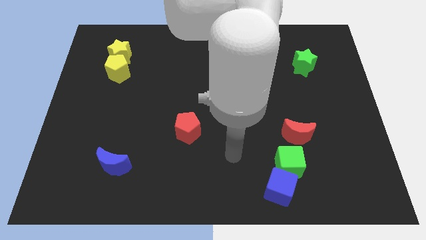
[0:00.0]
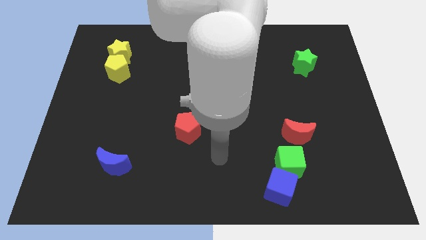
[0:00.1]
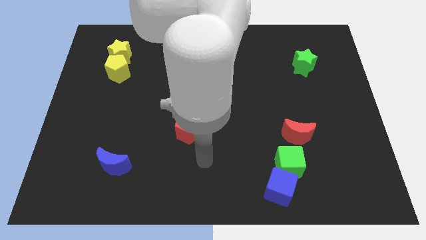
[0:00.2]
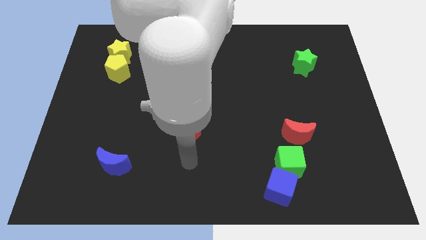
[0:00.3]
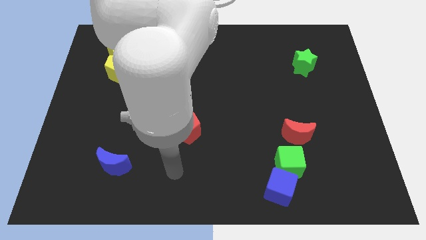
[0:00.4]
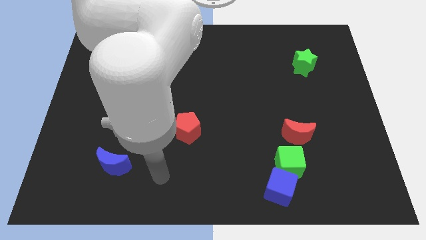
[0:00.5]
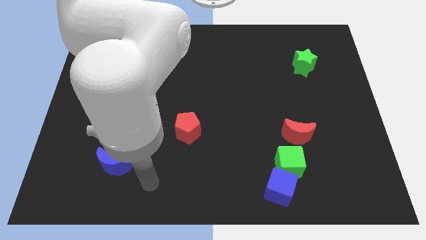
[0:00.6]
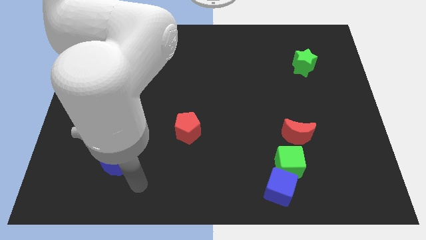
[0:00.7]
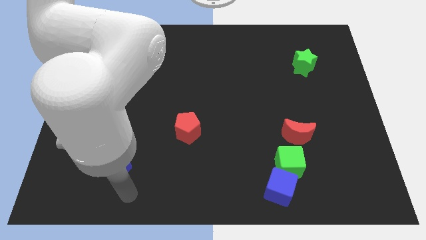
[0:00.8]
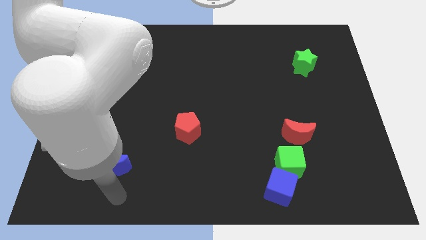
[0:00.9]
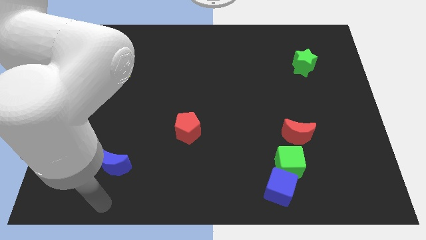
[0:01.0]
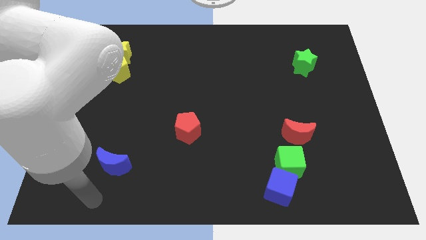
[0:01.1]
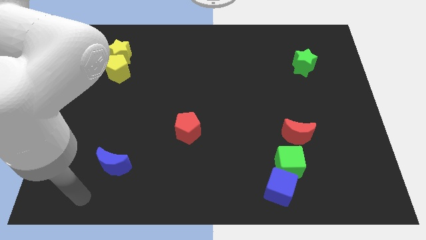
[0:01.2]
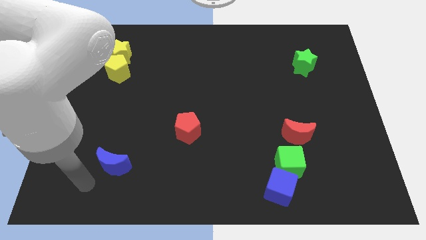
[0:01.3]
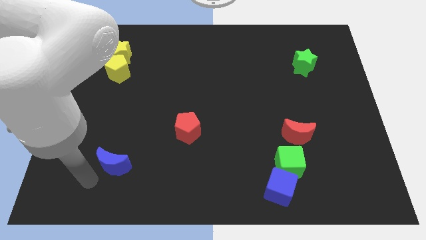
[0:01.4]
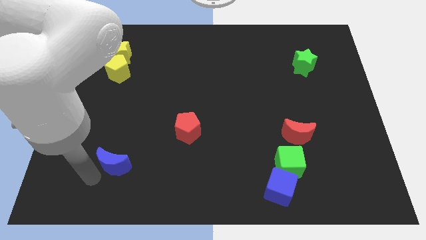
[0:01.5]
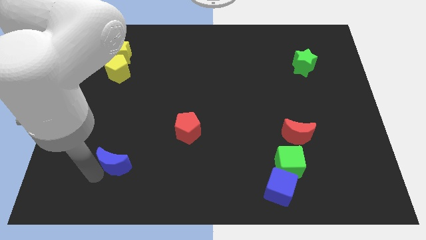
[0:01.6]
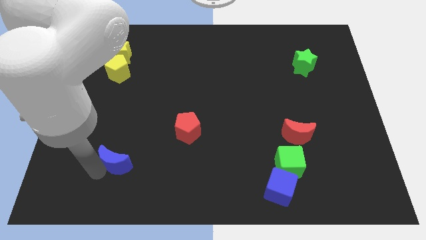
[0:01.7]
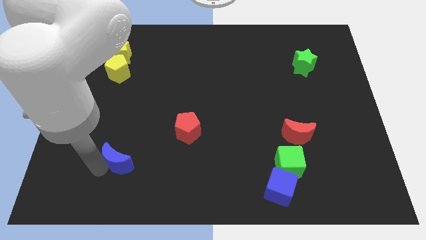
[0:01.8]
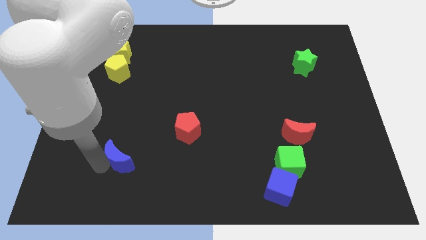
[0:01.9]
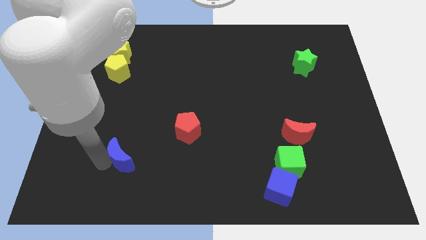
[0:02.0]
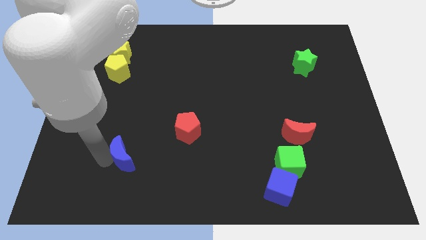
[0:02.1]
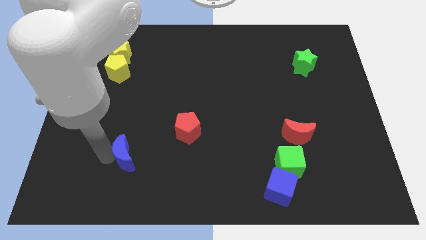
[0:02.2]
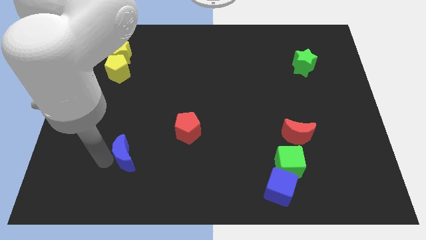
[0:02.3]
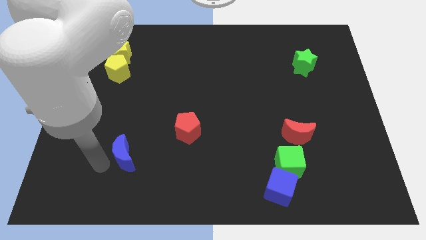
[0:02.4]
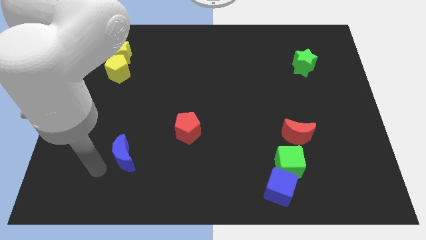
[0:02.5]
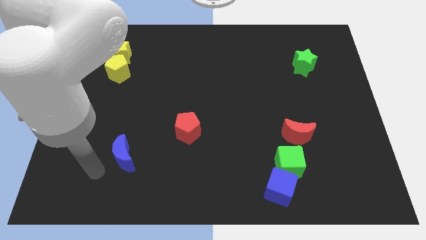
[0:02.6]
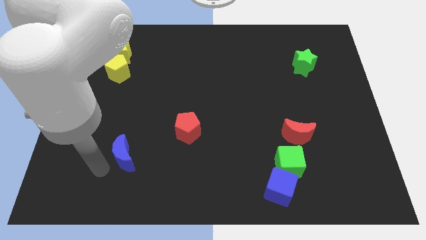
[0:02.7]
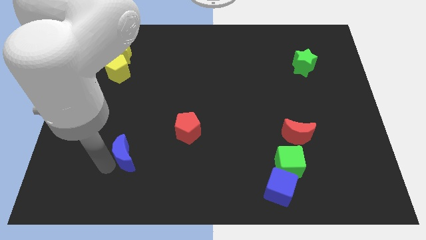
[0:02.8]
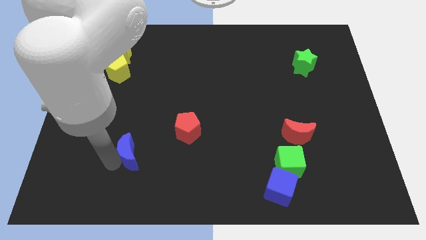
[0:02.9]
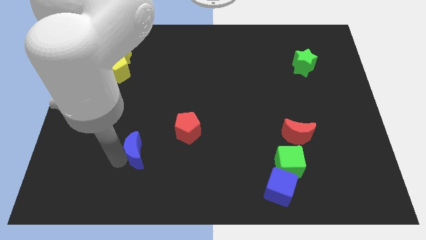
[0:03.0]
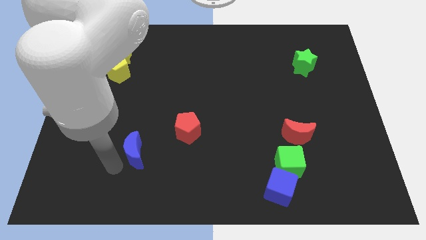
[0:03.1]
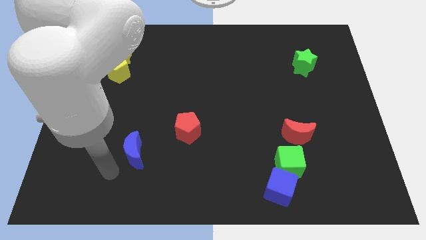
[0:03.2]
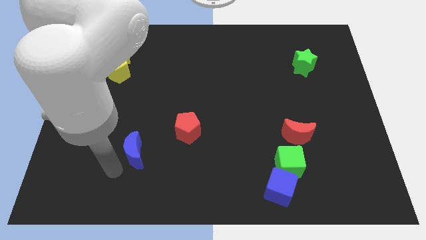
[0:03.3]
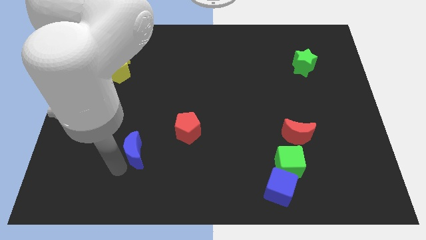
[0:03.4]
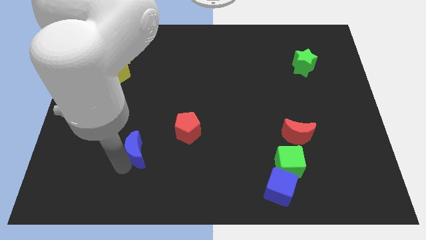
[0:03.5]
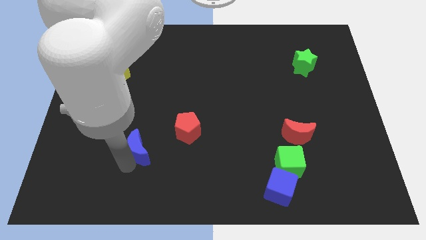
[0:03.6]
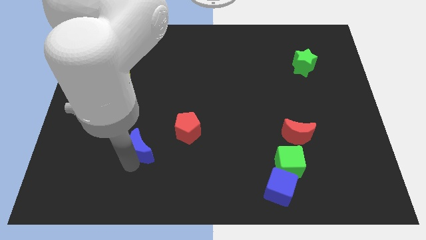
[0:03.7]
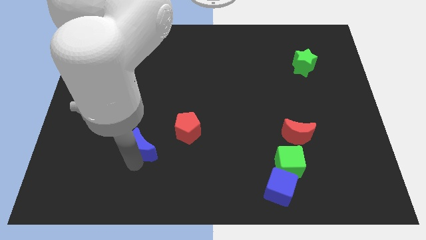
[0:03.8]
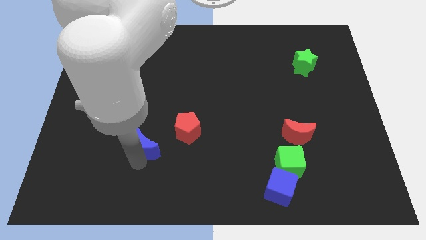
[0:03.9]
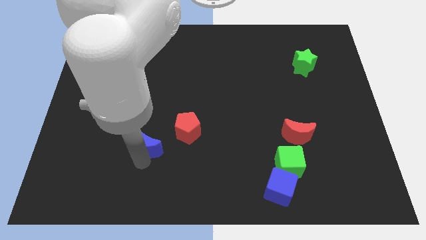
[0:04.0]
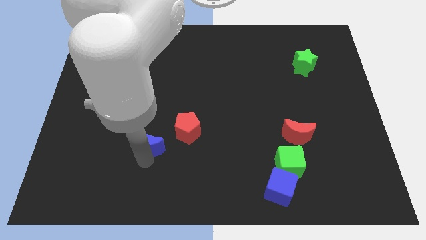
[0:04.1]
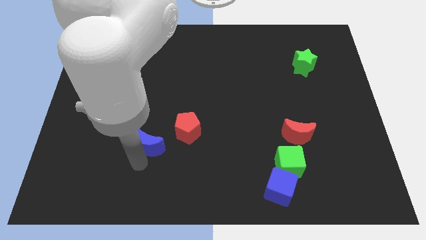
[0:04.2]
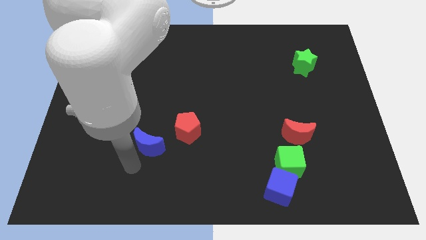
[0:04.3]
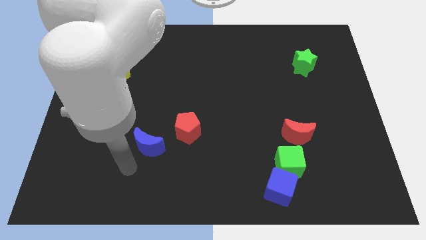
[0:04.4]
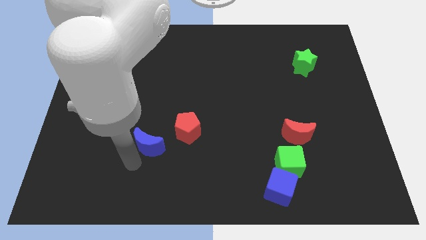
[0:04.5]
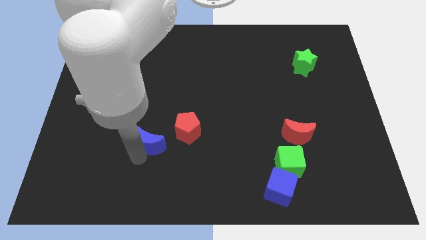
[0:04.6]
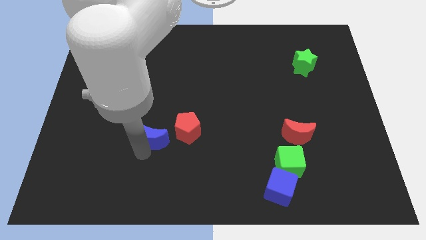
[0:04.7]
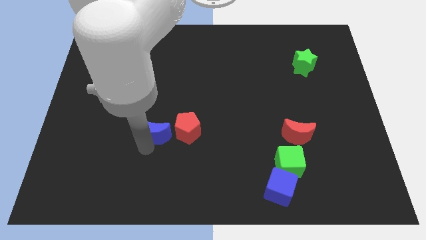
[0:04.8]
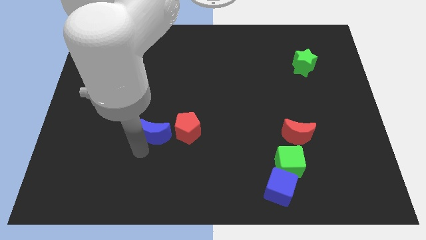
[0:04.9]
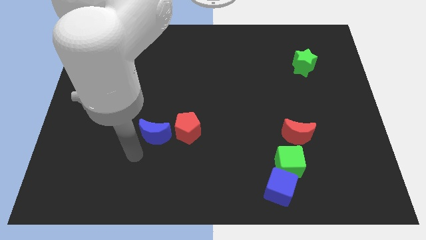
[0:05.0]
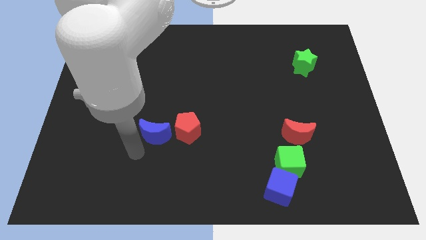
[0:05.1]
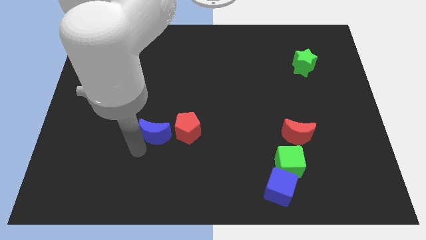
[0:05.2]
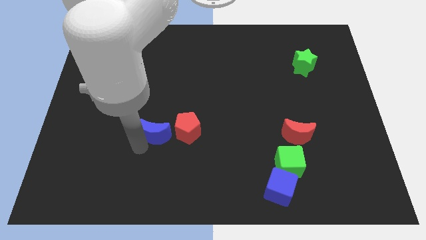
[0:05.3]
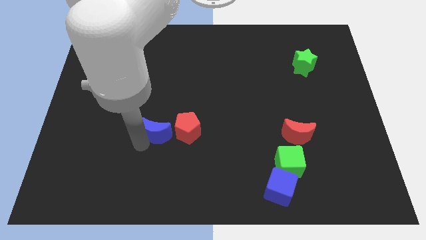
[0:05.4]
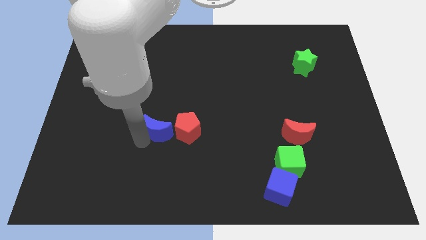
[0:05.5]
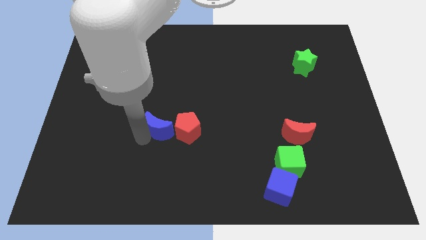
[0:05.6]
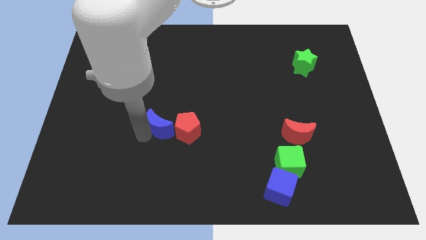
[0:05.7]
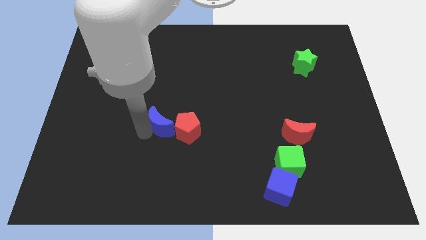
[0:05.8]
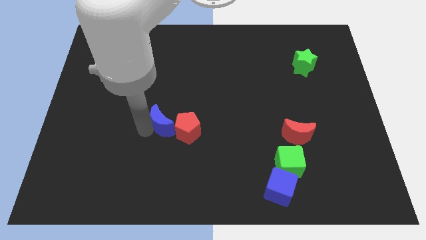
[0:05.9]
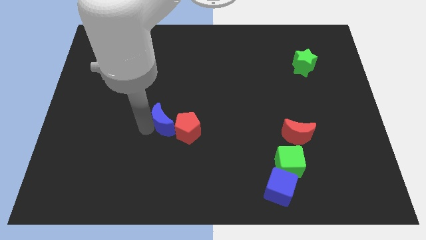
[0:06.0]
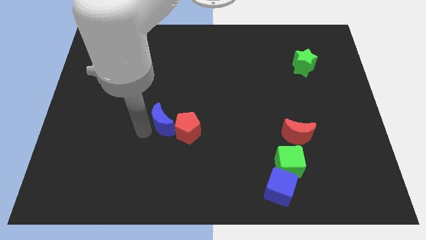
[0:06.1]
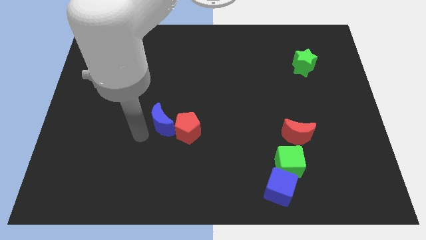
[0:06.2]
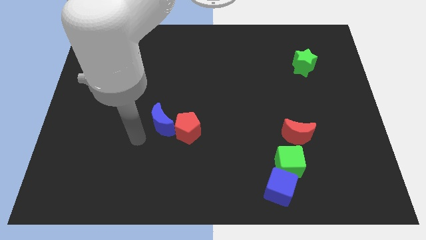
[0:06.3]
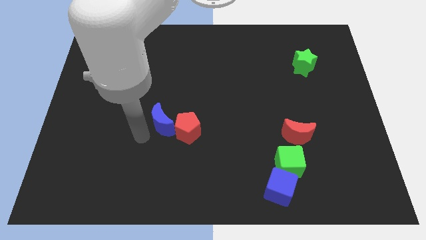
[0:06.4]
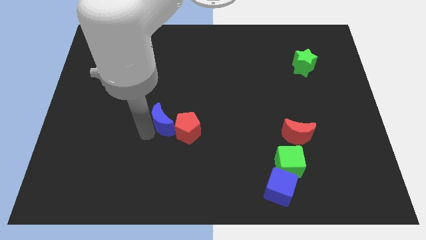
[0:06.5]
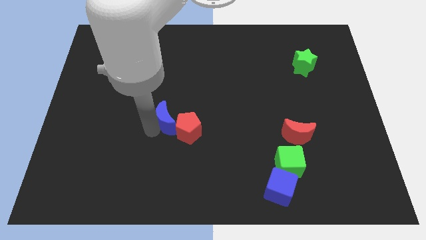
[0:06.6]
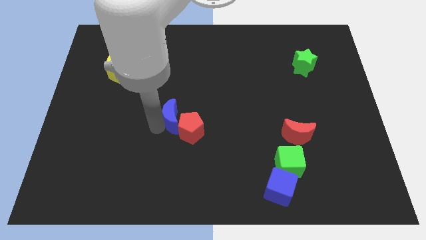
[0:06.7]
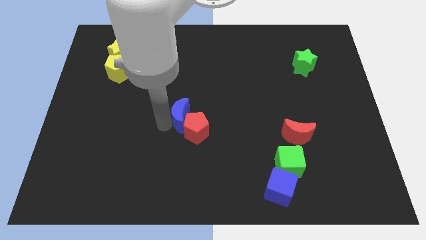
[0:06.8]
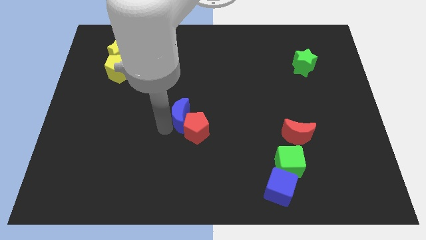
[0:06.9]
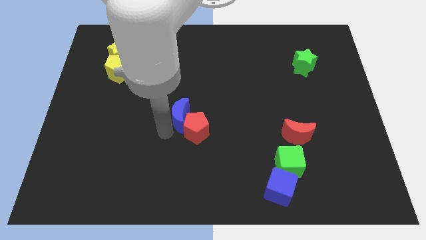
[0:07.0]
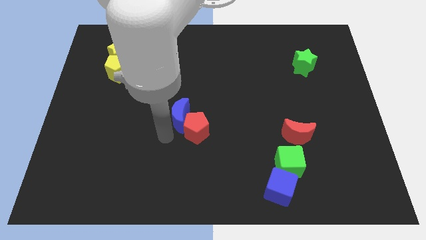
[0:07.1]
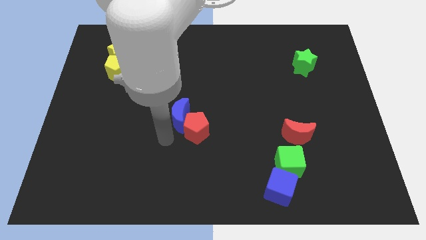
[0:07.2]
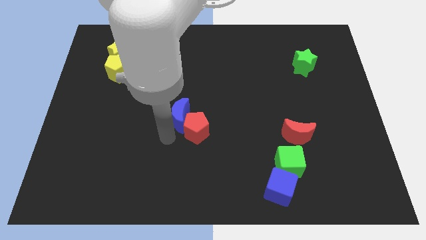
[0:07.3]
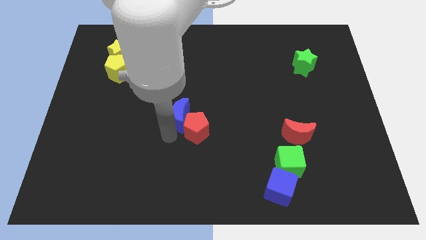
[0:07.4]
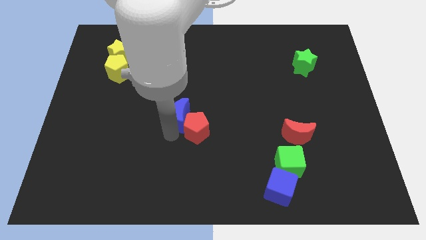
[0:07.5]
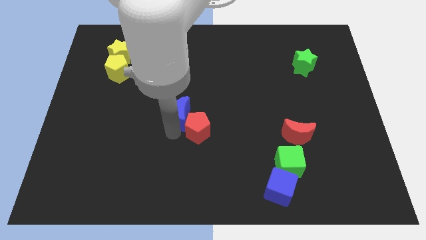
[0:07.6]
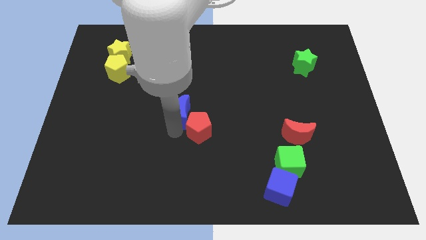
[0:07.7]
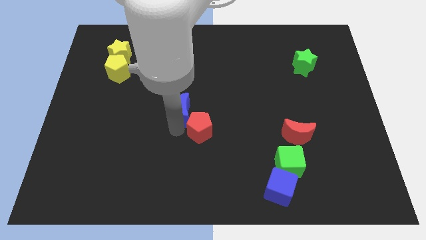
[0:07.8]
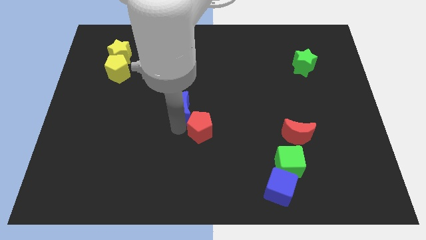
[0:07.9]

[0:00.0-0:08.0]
move the blue moon diagonally upwards and to the right

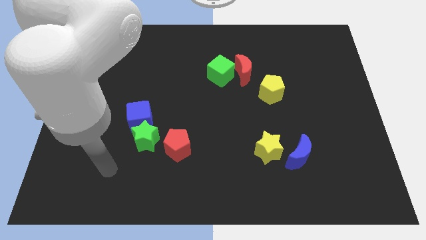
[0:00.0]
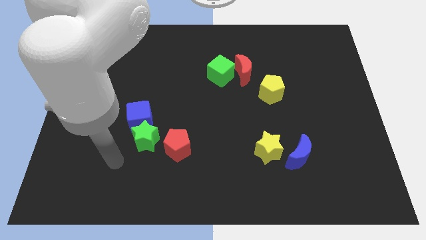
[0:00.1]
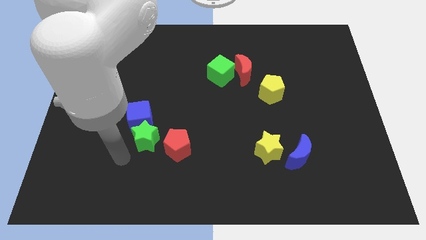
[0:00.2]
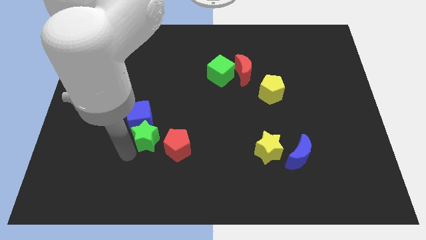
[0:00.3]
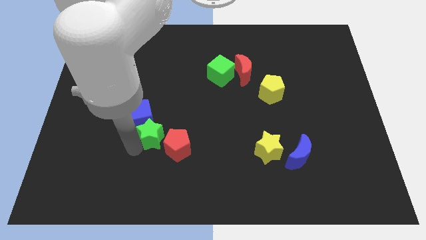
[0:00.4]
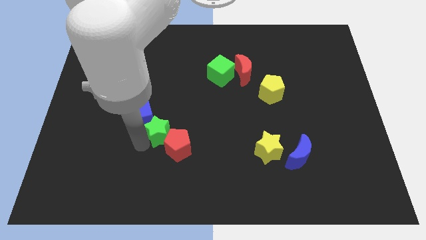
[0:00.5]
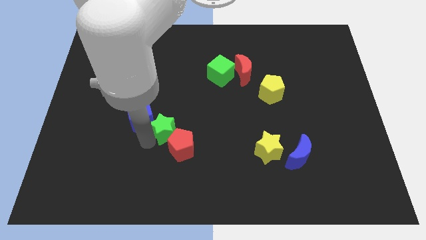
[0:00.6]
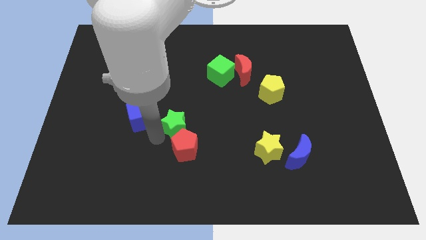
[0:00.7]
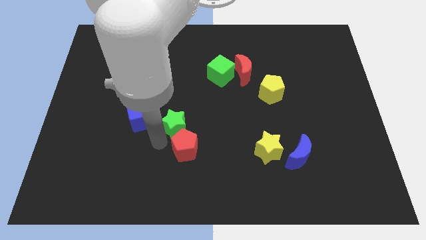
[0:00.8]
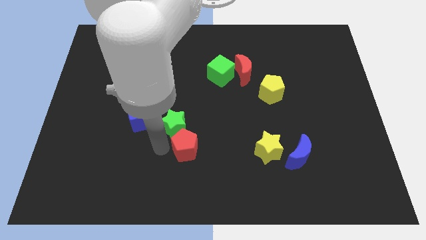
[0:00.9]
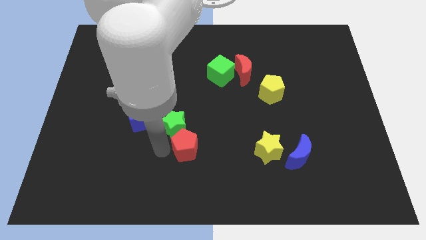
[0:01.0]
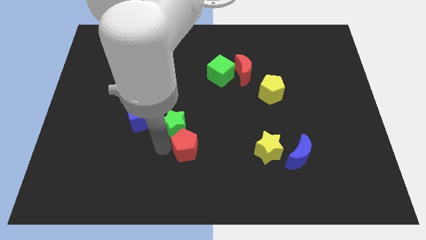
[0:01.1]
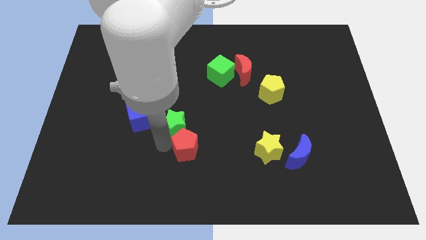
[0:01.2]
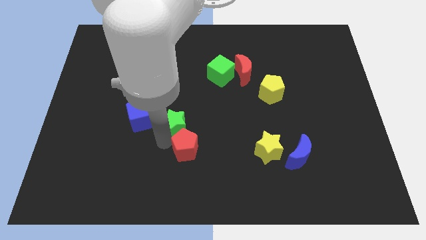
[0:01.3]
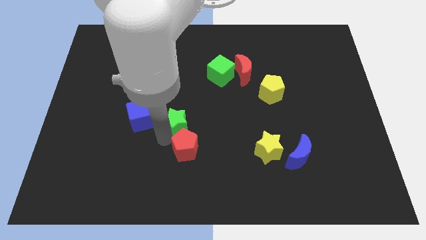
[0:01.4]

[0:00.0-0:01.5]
slightly push the green star diagonally up and right
